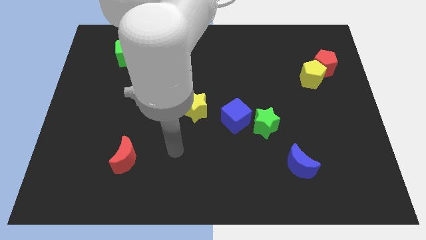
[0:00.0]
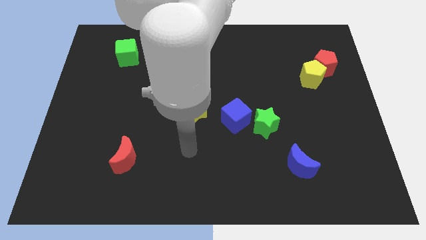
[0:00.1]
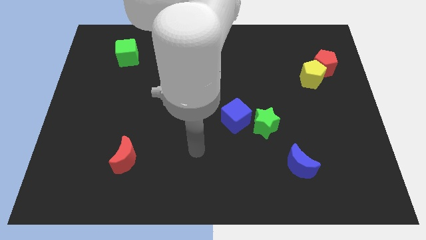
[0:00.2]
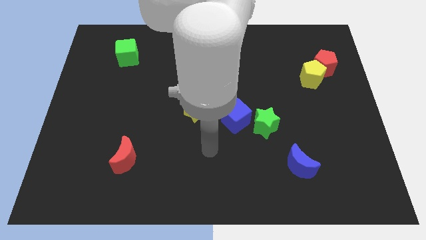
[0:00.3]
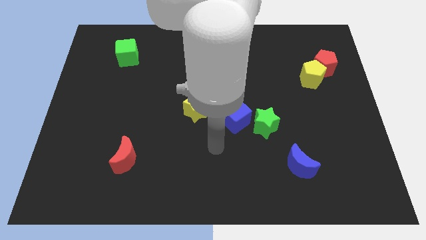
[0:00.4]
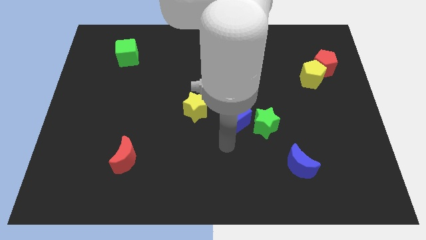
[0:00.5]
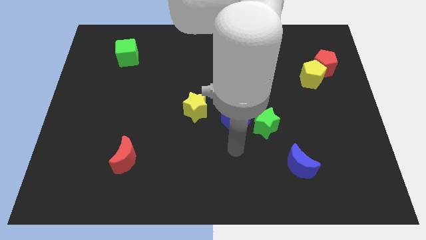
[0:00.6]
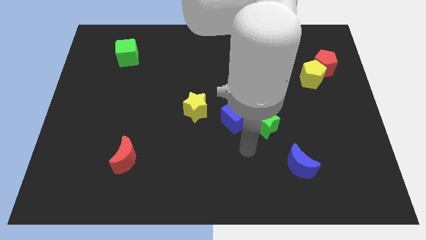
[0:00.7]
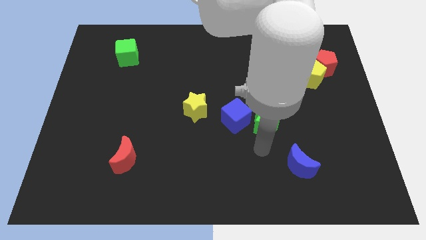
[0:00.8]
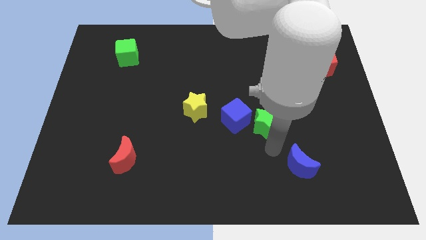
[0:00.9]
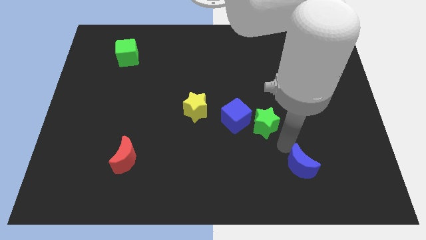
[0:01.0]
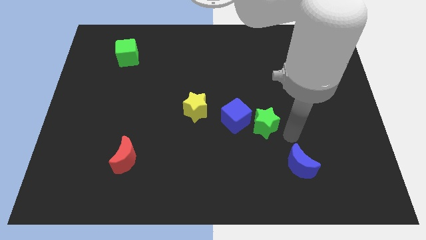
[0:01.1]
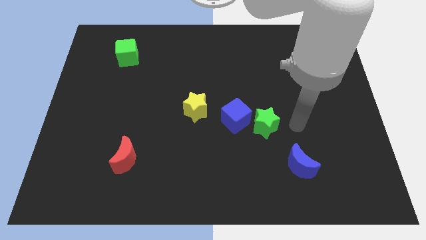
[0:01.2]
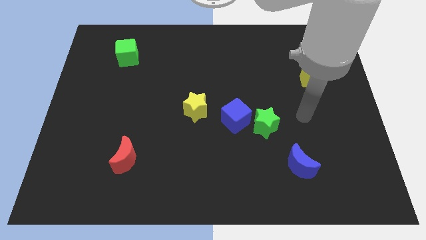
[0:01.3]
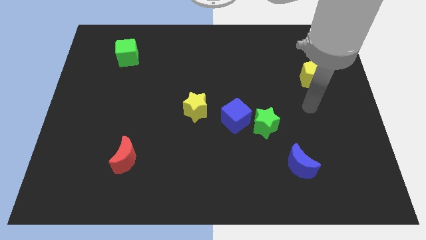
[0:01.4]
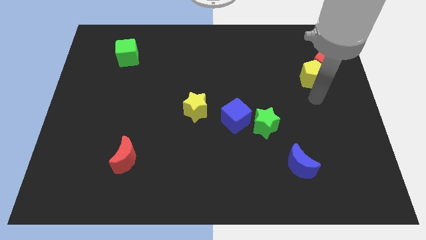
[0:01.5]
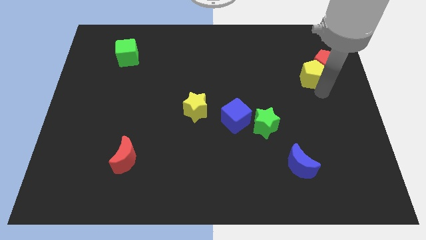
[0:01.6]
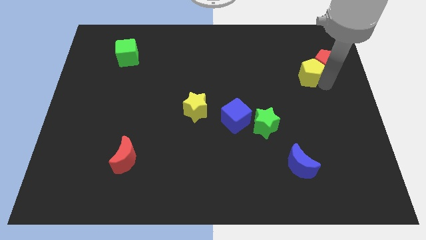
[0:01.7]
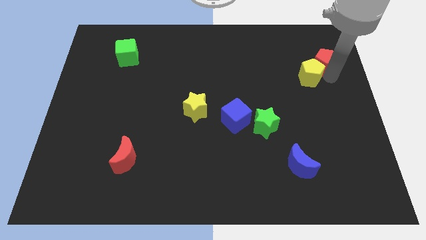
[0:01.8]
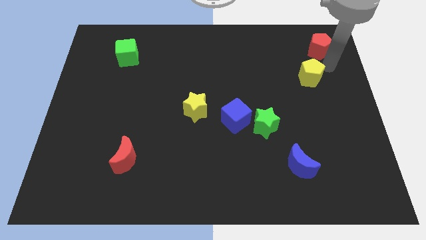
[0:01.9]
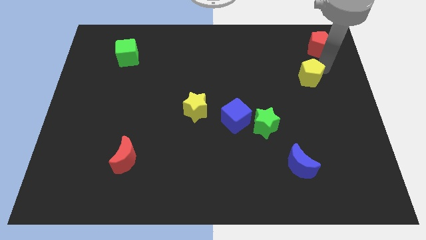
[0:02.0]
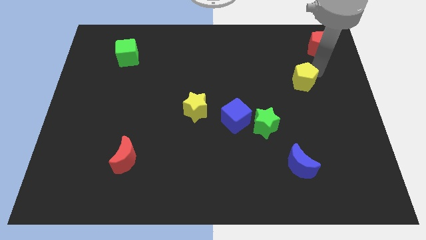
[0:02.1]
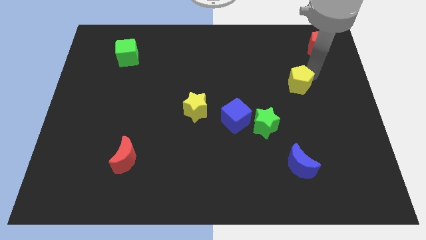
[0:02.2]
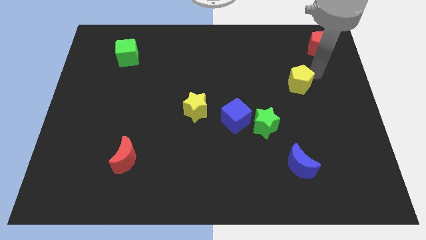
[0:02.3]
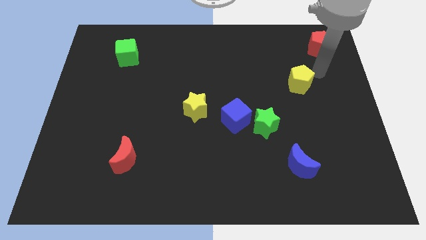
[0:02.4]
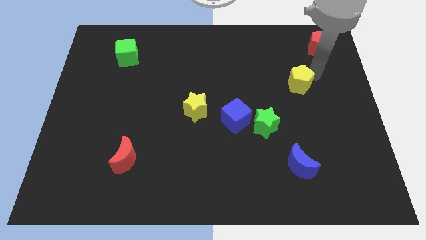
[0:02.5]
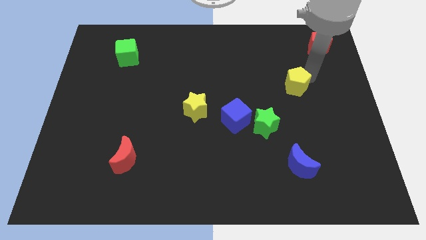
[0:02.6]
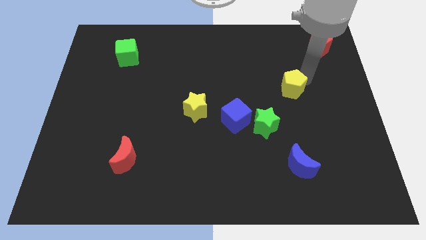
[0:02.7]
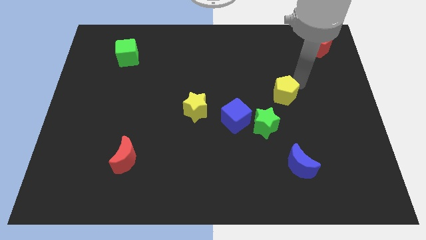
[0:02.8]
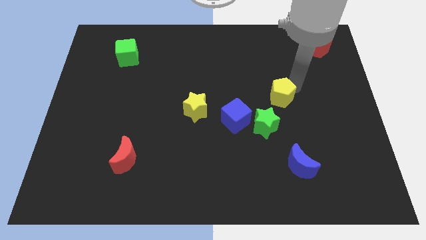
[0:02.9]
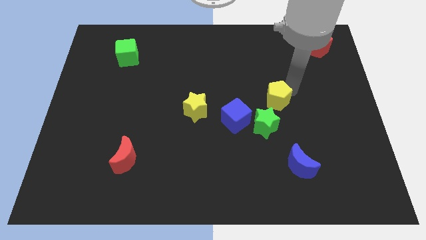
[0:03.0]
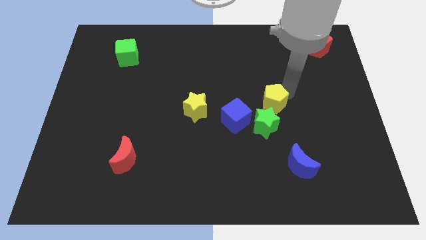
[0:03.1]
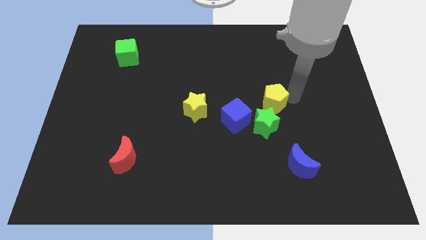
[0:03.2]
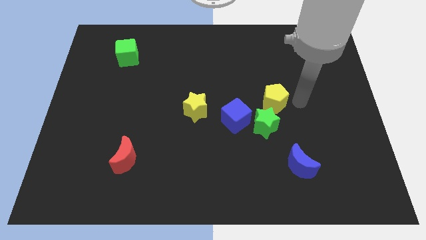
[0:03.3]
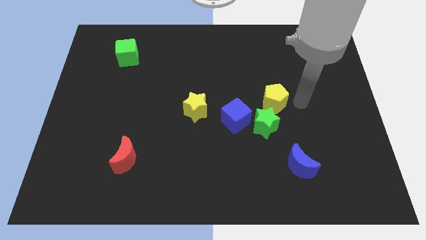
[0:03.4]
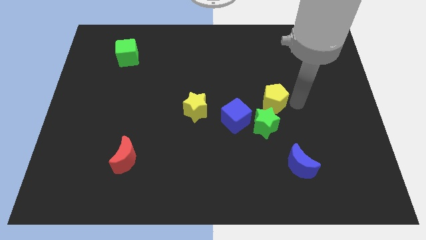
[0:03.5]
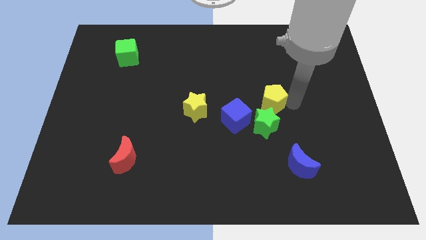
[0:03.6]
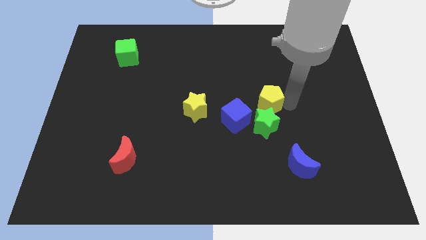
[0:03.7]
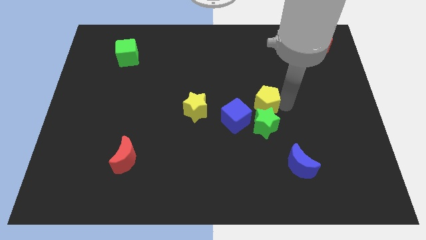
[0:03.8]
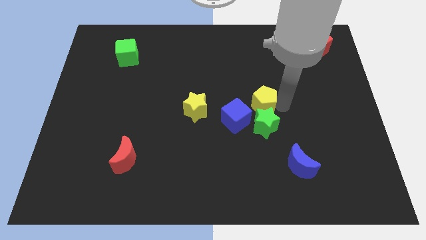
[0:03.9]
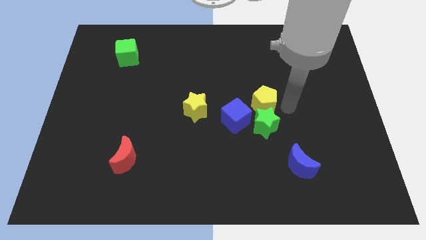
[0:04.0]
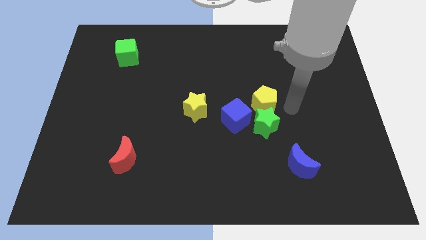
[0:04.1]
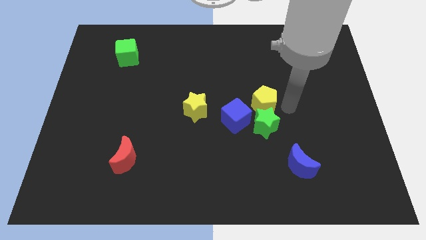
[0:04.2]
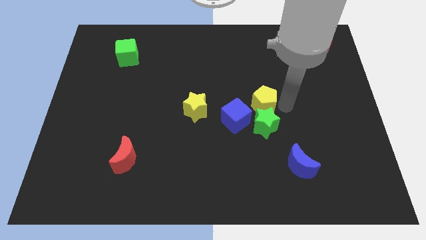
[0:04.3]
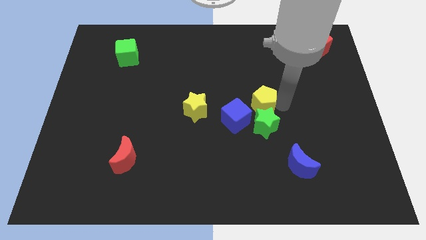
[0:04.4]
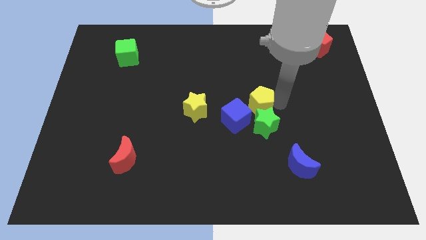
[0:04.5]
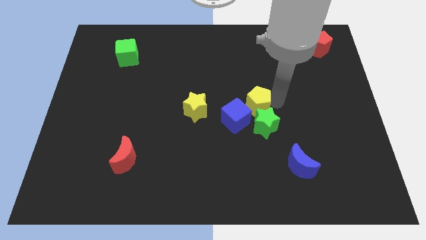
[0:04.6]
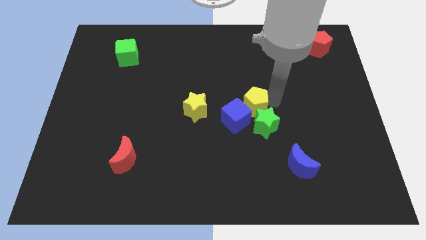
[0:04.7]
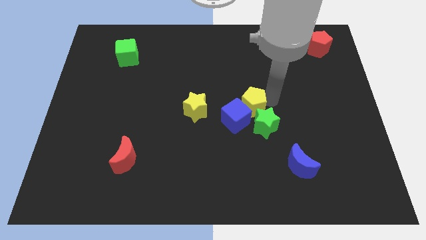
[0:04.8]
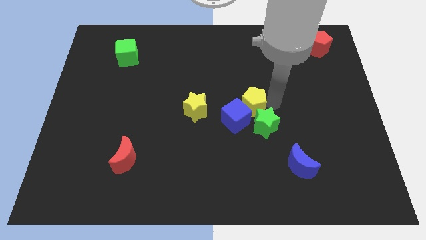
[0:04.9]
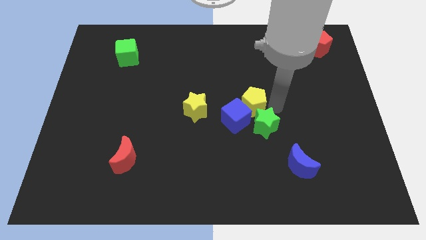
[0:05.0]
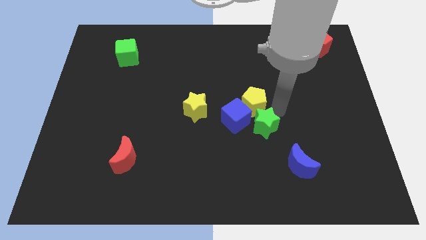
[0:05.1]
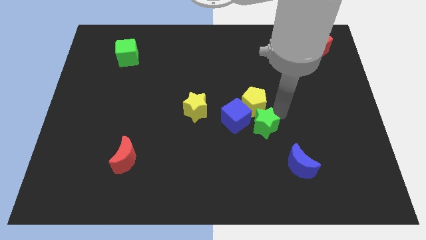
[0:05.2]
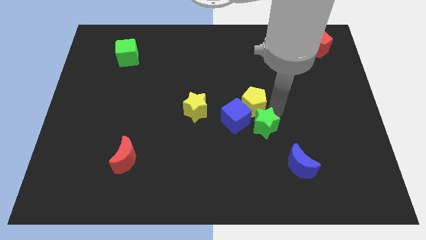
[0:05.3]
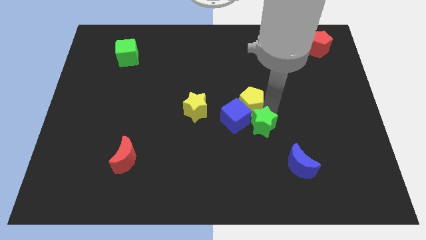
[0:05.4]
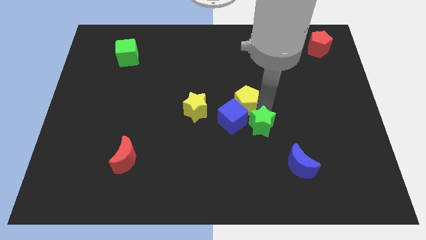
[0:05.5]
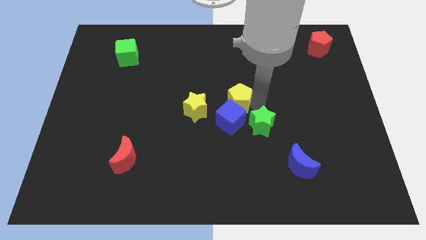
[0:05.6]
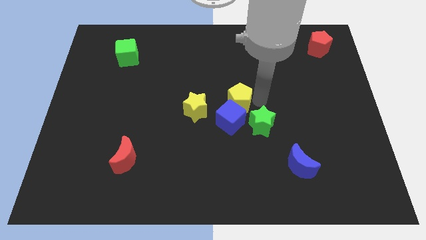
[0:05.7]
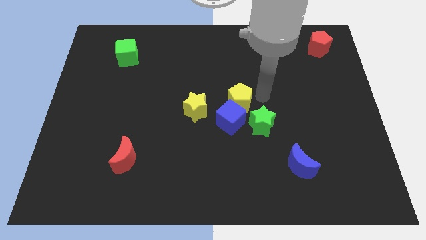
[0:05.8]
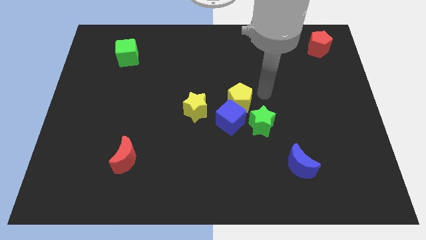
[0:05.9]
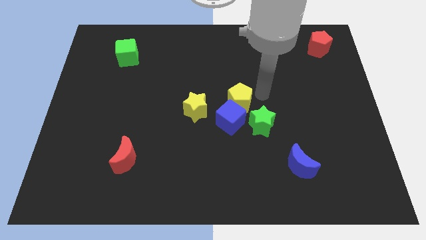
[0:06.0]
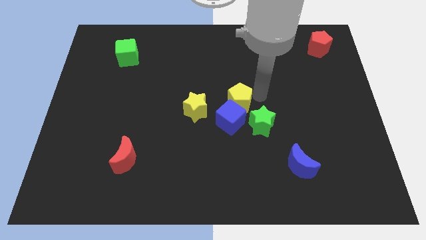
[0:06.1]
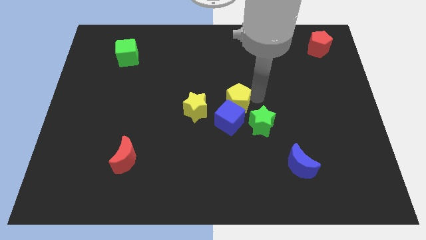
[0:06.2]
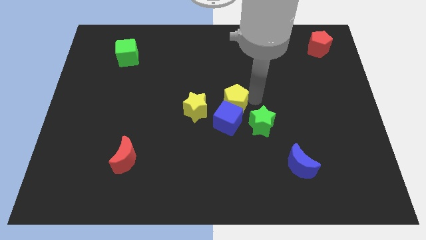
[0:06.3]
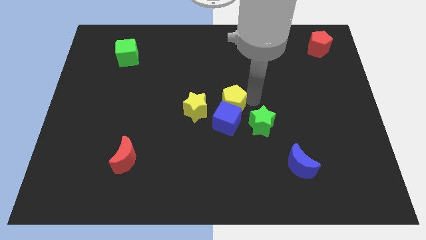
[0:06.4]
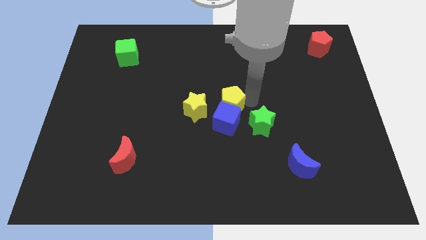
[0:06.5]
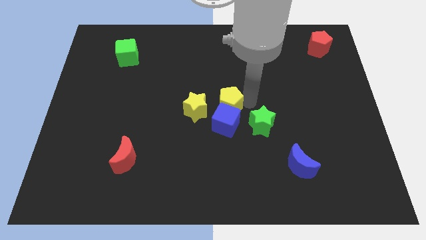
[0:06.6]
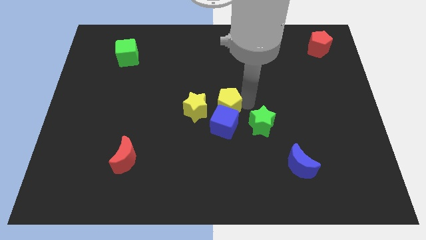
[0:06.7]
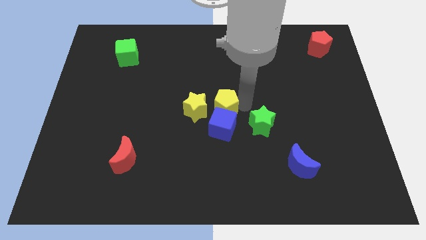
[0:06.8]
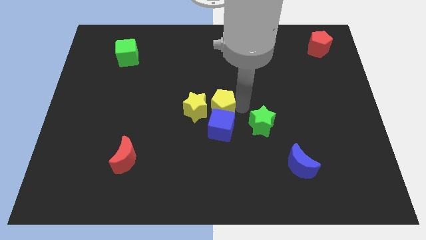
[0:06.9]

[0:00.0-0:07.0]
push the yellow pentagon close to the yellow star
